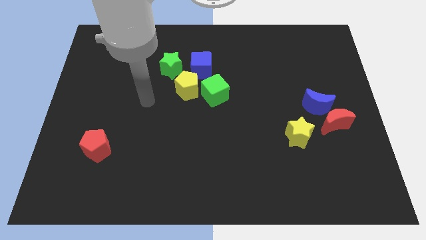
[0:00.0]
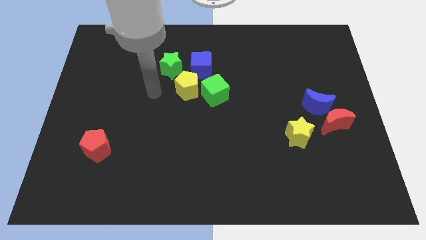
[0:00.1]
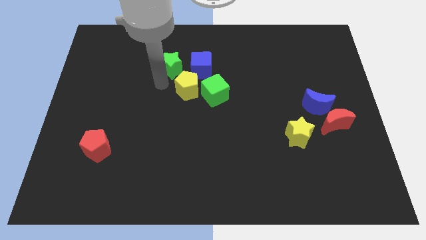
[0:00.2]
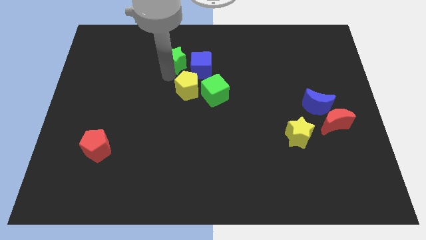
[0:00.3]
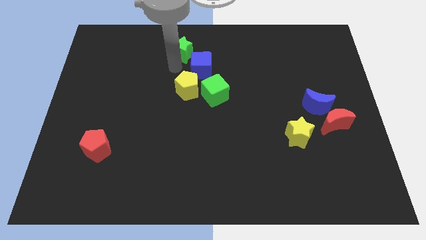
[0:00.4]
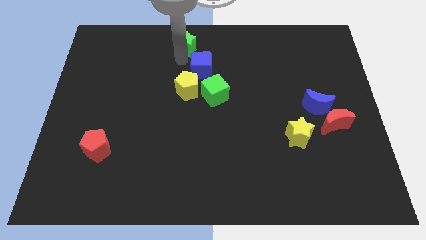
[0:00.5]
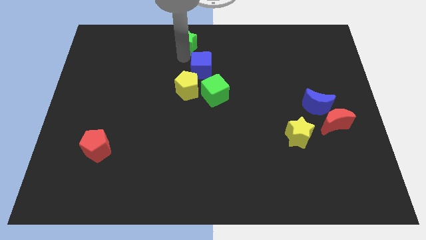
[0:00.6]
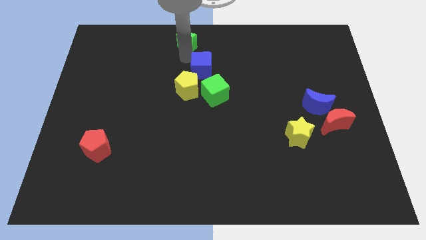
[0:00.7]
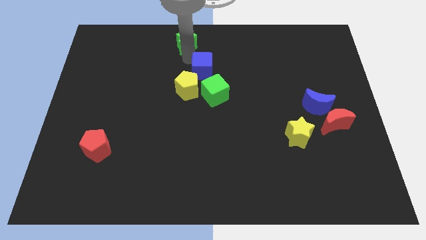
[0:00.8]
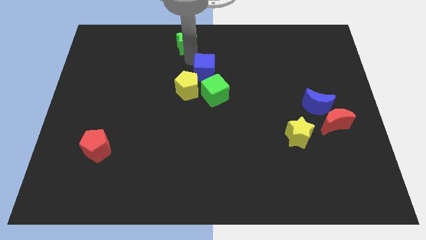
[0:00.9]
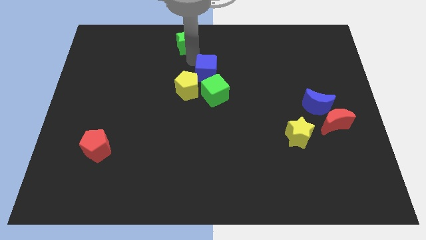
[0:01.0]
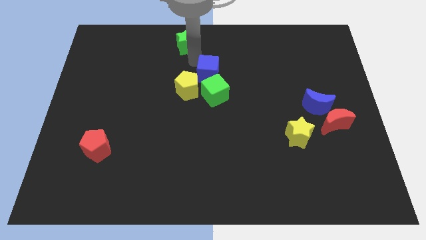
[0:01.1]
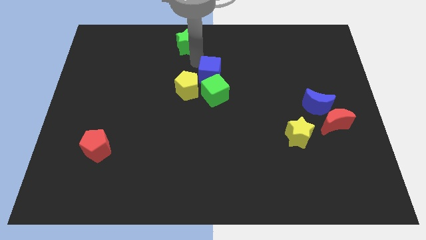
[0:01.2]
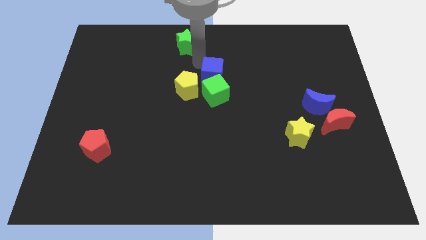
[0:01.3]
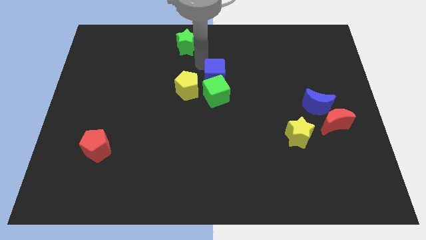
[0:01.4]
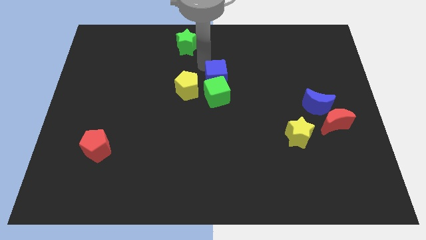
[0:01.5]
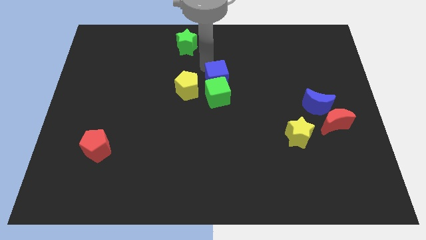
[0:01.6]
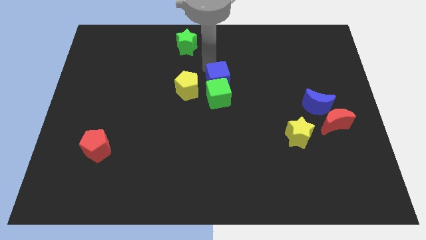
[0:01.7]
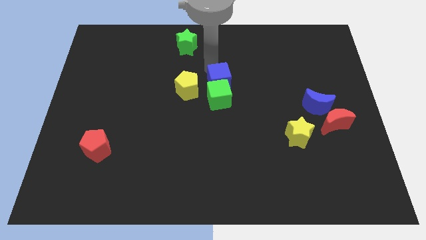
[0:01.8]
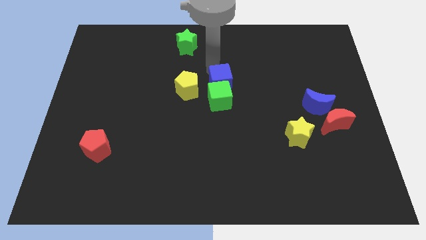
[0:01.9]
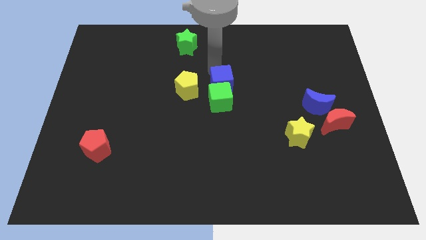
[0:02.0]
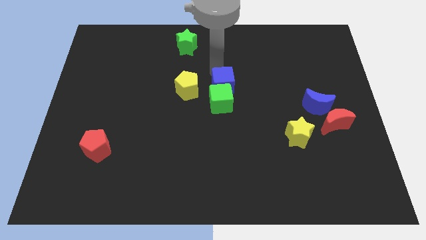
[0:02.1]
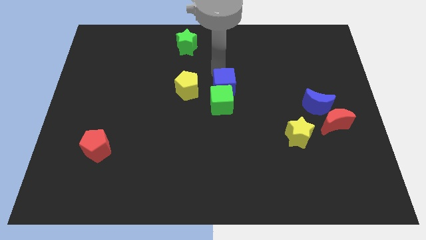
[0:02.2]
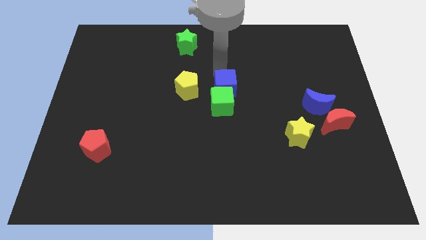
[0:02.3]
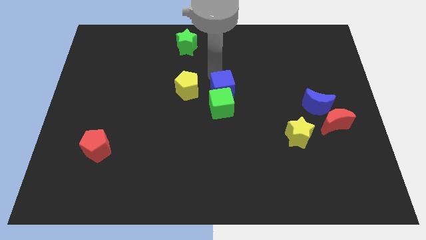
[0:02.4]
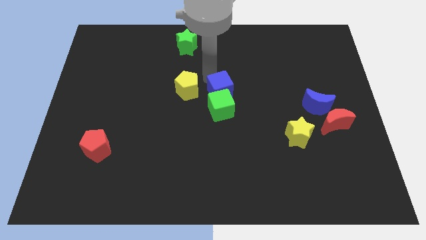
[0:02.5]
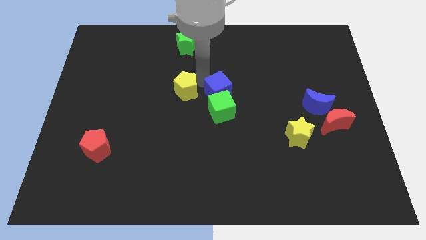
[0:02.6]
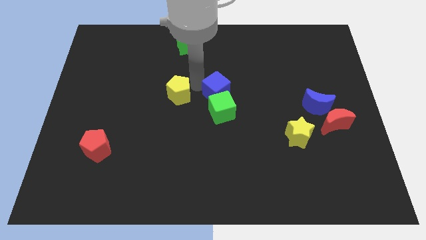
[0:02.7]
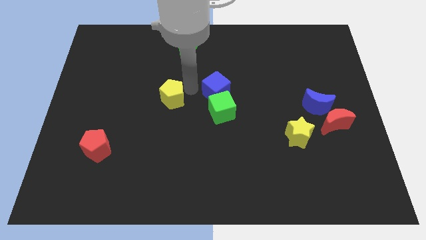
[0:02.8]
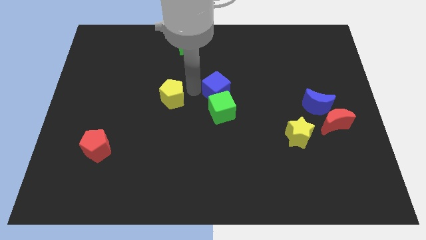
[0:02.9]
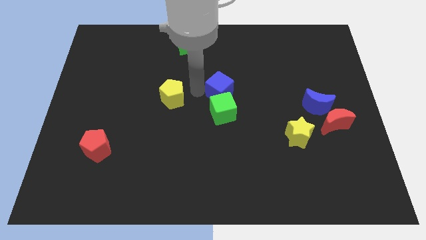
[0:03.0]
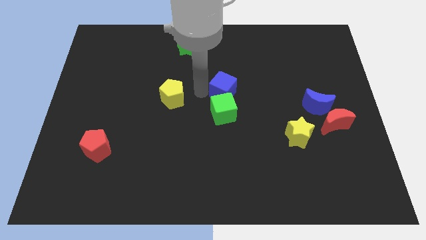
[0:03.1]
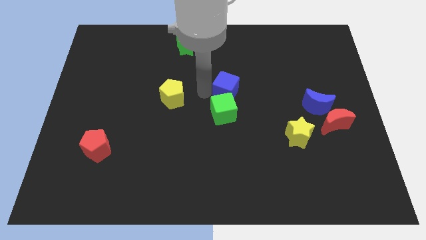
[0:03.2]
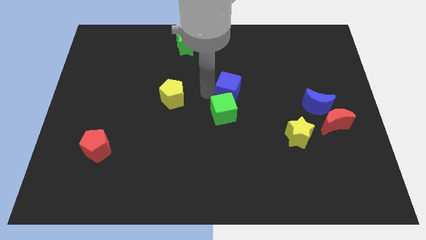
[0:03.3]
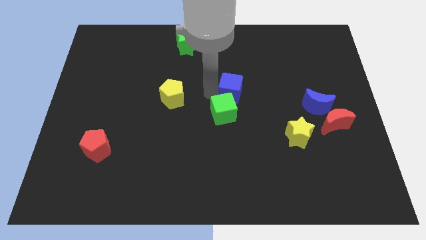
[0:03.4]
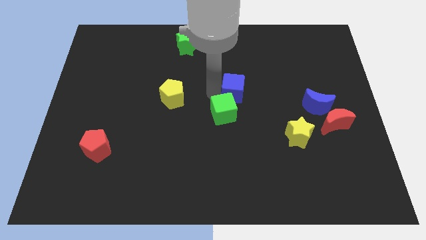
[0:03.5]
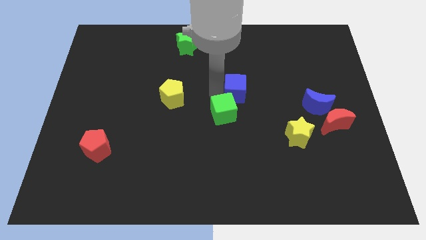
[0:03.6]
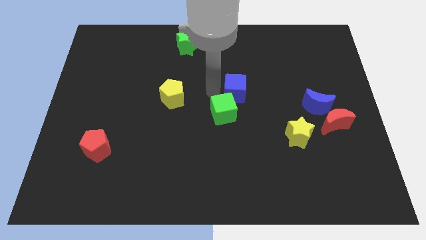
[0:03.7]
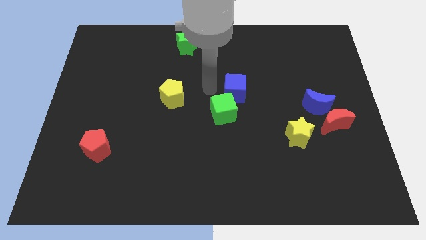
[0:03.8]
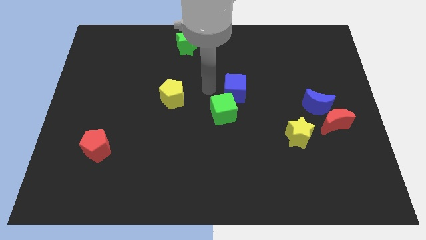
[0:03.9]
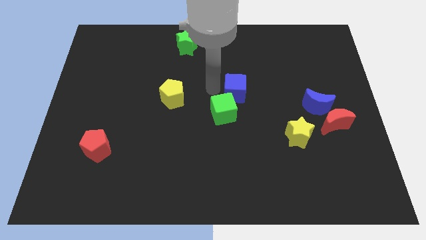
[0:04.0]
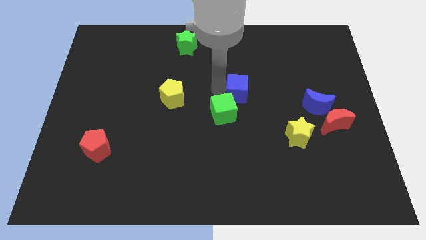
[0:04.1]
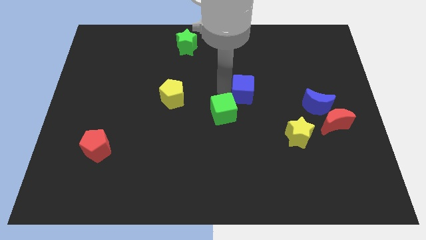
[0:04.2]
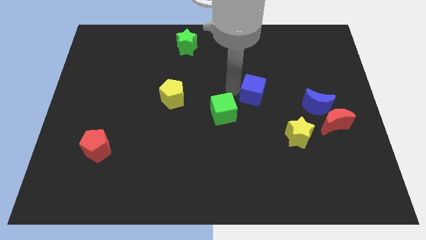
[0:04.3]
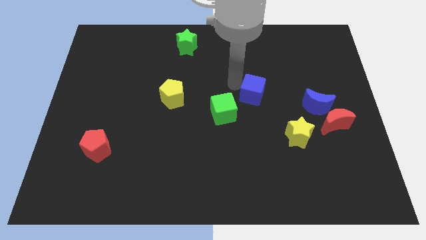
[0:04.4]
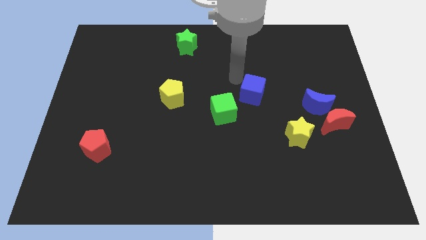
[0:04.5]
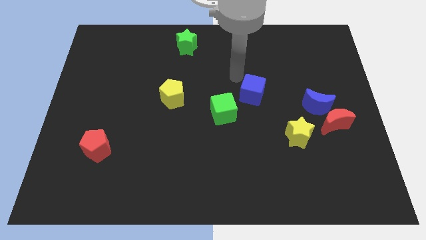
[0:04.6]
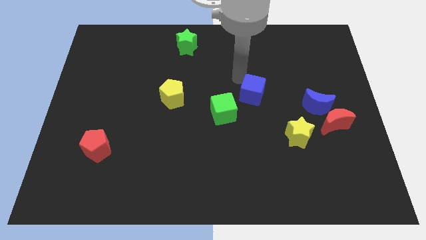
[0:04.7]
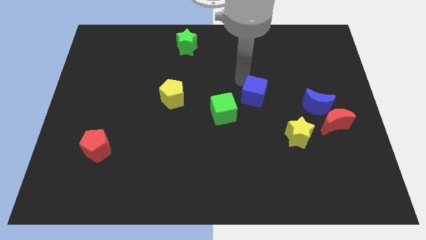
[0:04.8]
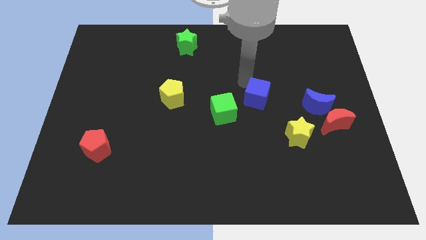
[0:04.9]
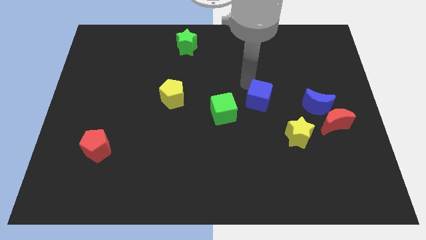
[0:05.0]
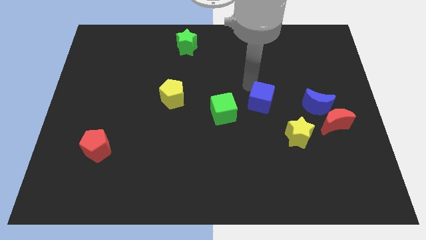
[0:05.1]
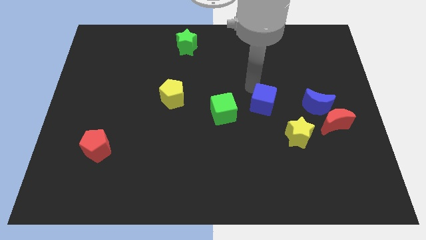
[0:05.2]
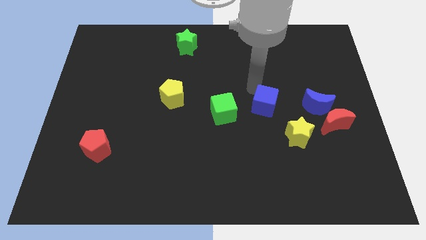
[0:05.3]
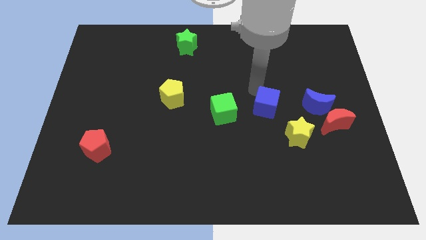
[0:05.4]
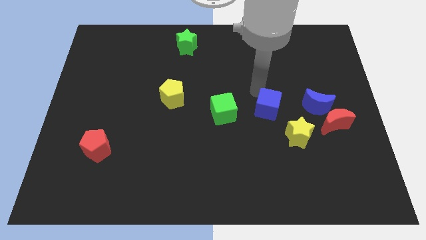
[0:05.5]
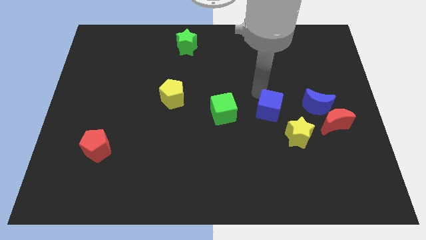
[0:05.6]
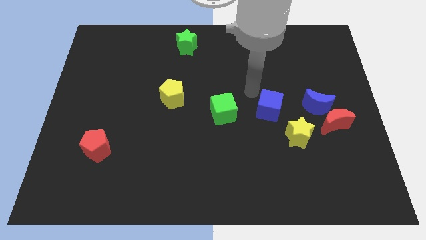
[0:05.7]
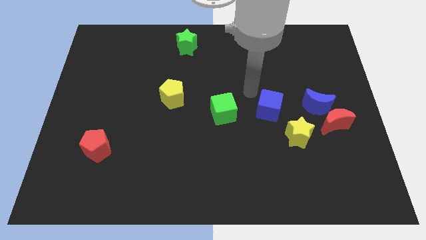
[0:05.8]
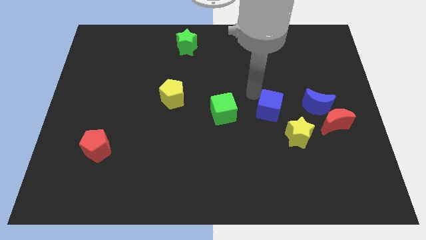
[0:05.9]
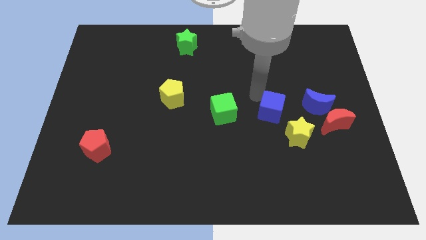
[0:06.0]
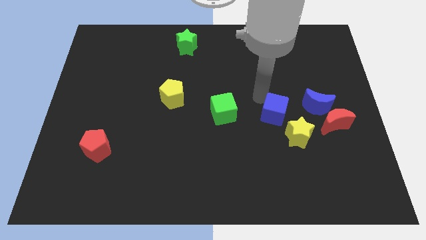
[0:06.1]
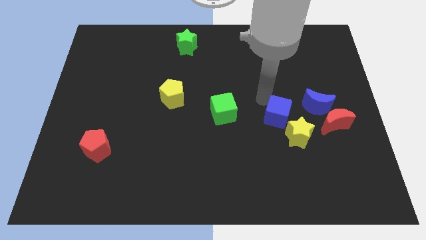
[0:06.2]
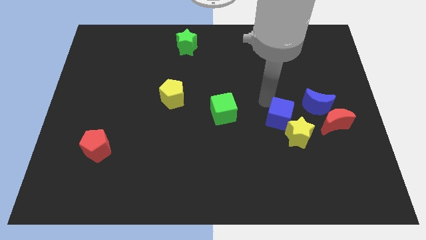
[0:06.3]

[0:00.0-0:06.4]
move the blue cube close to the yellow star
